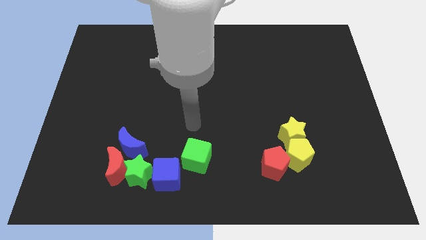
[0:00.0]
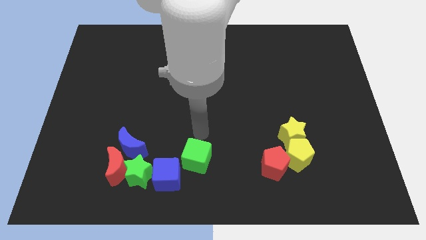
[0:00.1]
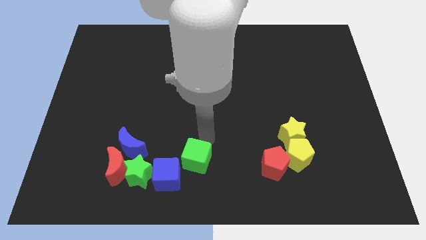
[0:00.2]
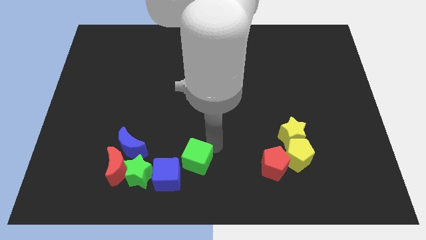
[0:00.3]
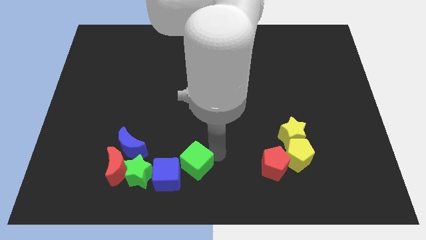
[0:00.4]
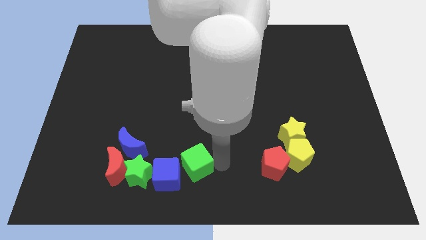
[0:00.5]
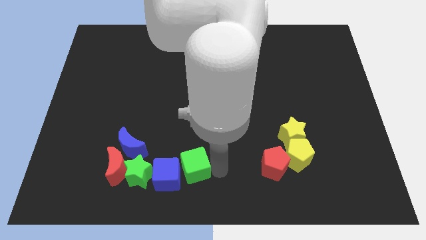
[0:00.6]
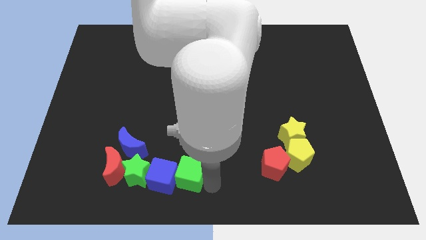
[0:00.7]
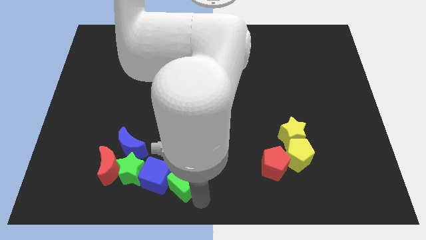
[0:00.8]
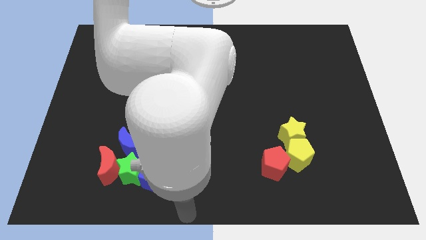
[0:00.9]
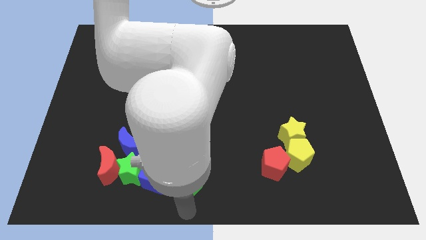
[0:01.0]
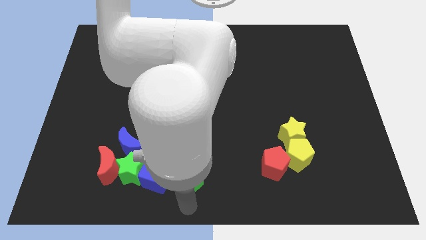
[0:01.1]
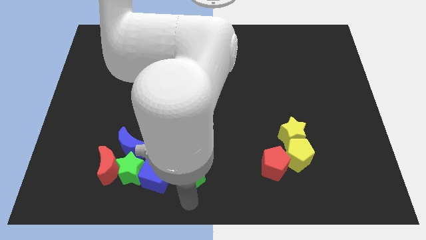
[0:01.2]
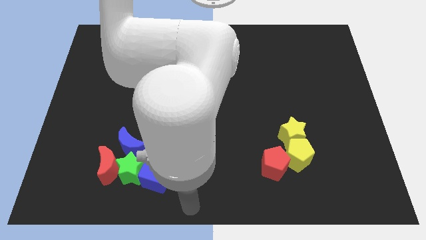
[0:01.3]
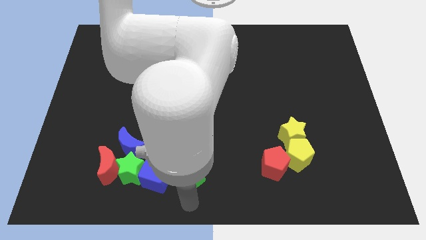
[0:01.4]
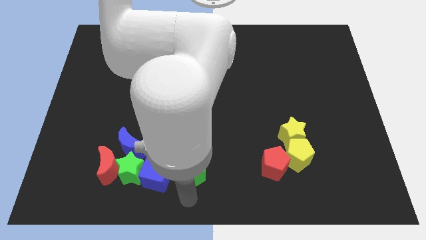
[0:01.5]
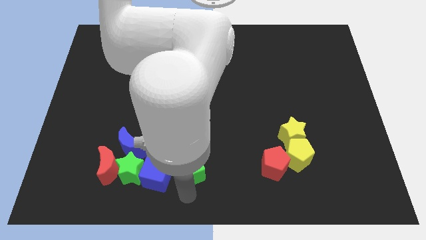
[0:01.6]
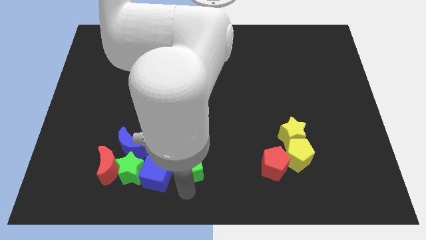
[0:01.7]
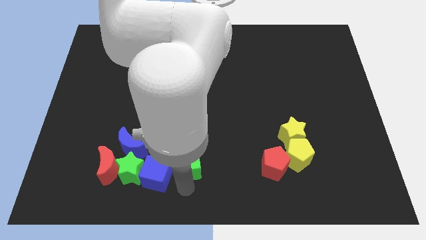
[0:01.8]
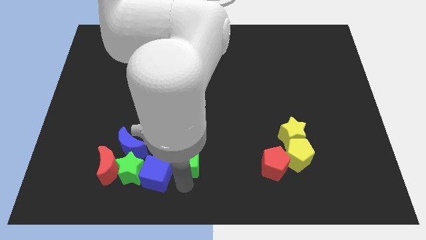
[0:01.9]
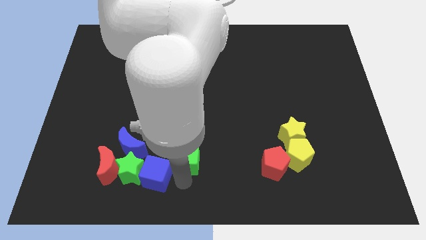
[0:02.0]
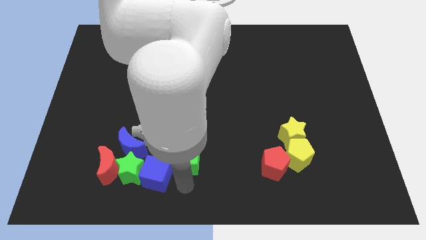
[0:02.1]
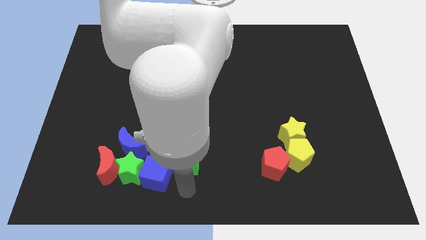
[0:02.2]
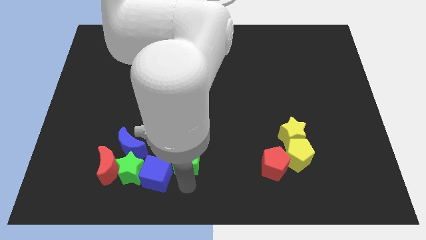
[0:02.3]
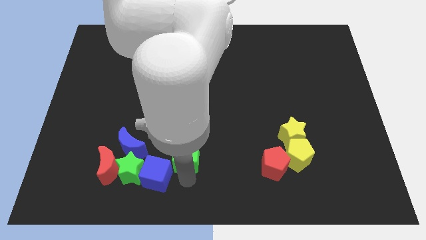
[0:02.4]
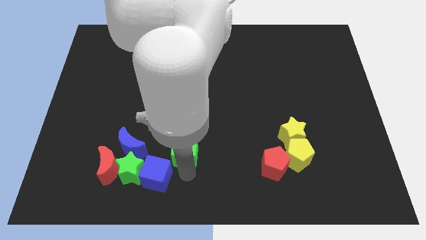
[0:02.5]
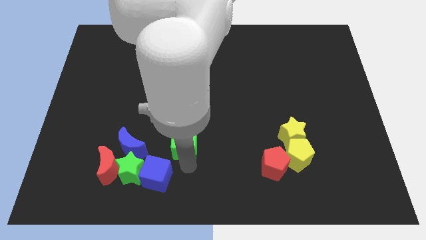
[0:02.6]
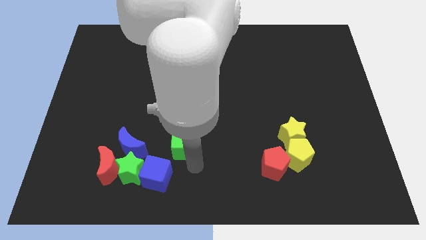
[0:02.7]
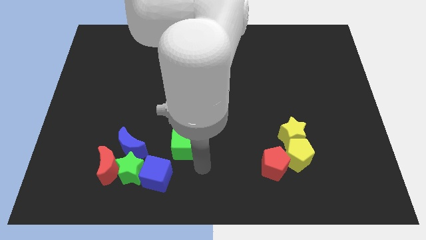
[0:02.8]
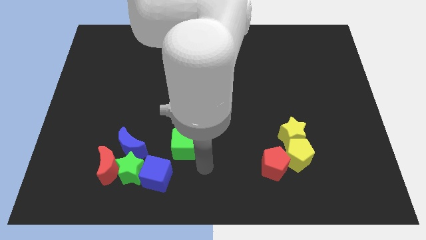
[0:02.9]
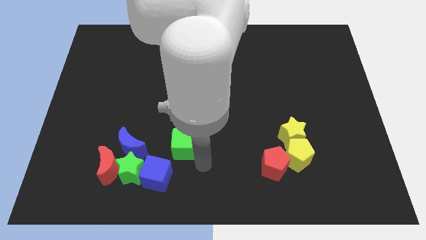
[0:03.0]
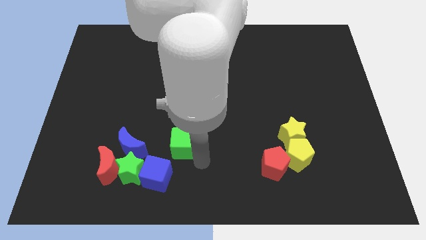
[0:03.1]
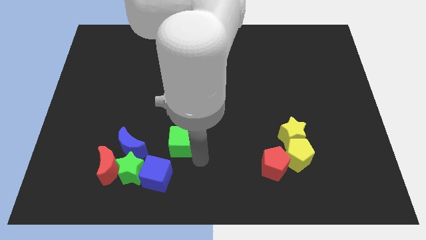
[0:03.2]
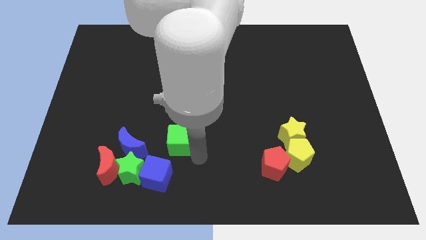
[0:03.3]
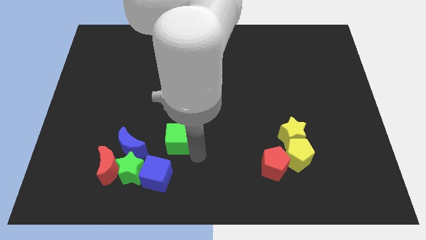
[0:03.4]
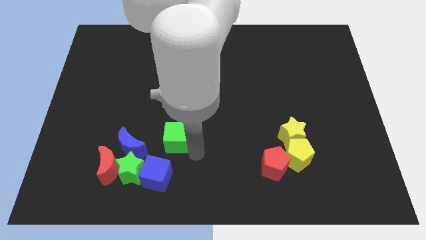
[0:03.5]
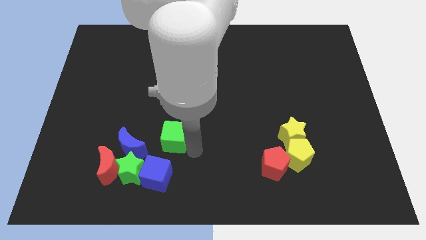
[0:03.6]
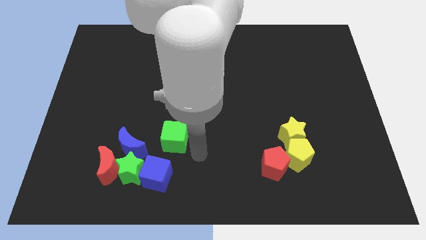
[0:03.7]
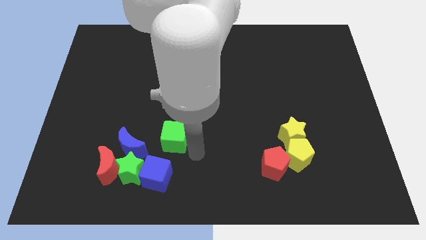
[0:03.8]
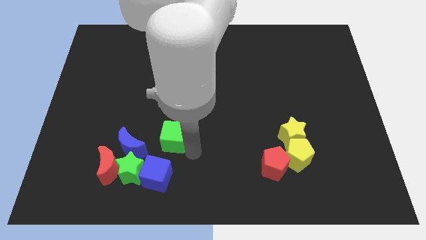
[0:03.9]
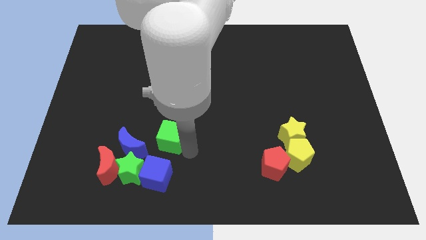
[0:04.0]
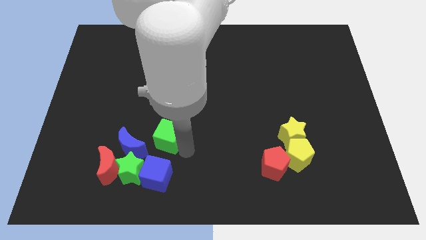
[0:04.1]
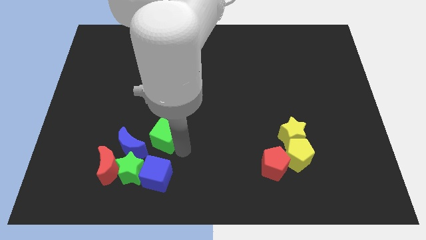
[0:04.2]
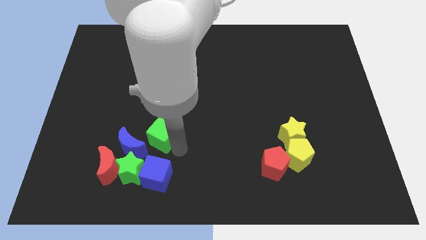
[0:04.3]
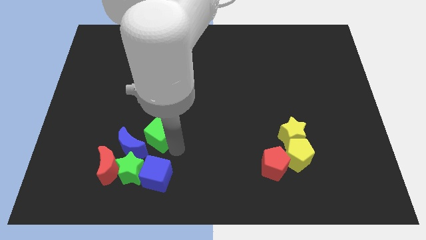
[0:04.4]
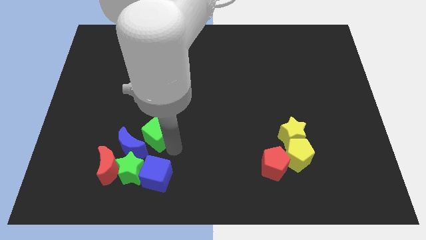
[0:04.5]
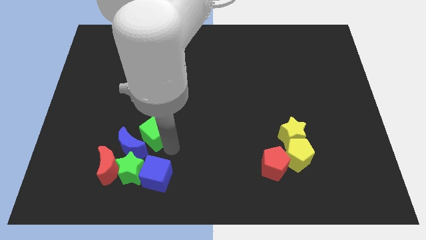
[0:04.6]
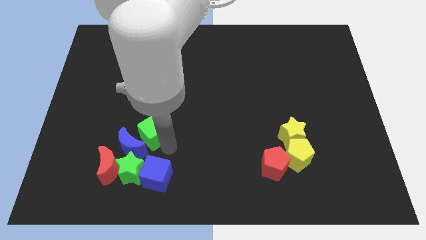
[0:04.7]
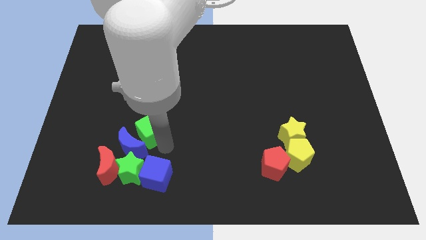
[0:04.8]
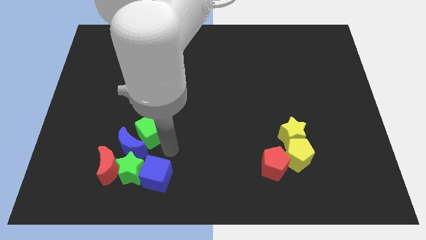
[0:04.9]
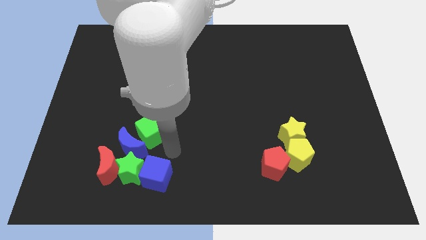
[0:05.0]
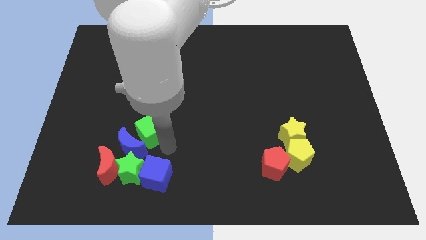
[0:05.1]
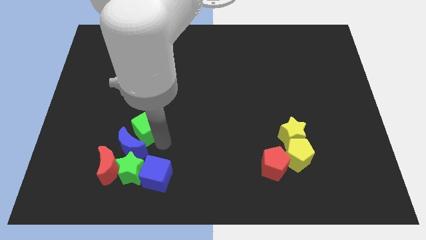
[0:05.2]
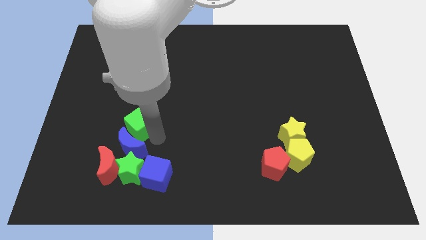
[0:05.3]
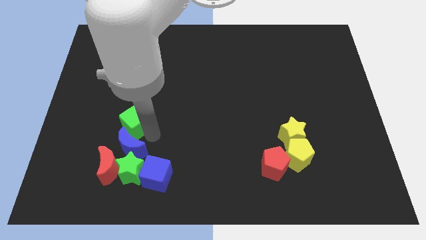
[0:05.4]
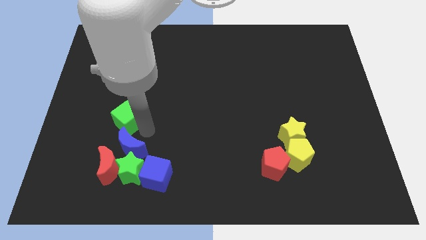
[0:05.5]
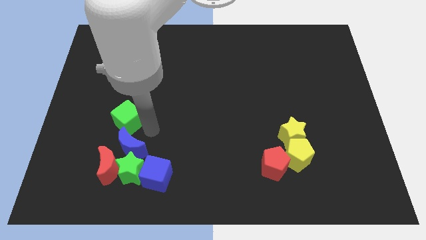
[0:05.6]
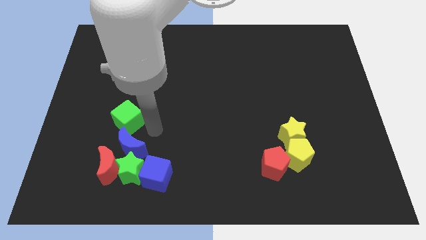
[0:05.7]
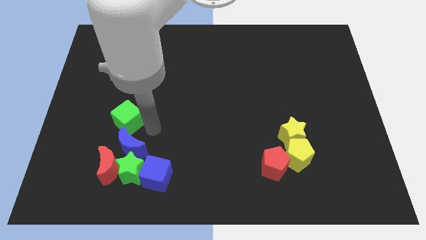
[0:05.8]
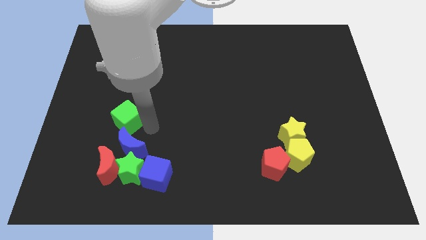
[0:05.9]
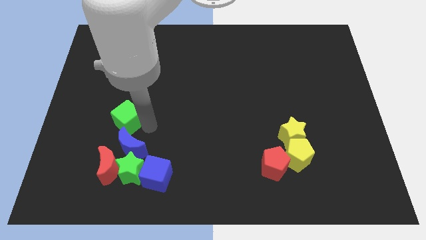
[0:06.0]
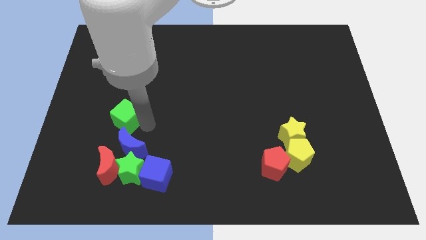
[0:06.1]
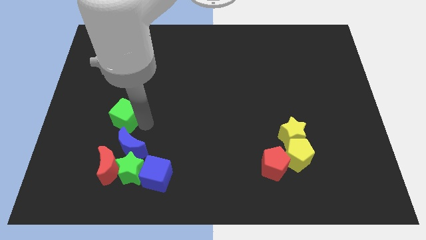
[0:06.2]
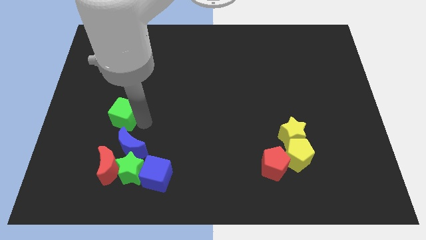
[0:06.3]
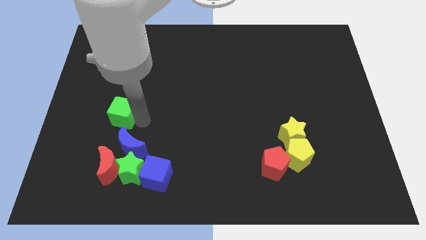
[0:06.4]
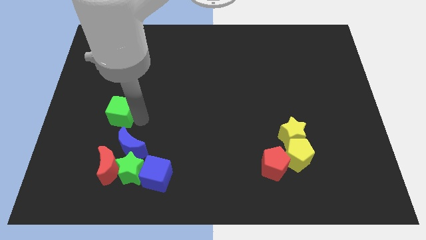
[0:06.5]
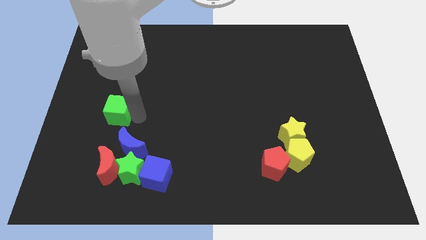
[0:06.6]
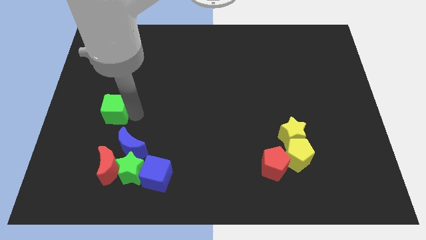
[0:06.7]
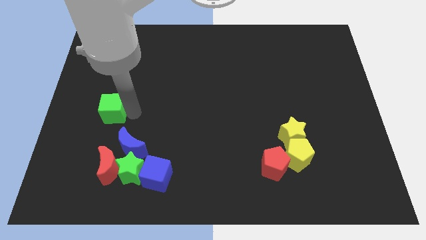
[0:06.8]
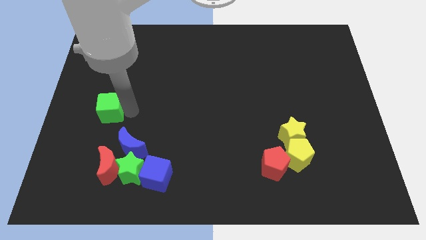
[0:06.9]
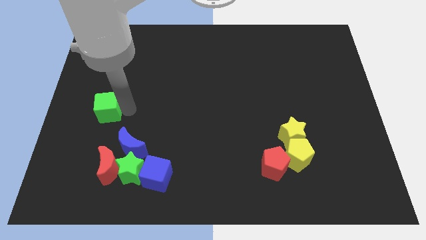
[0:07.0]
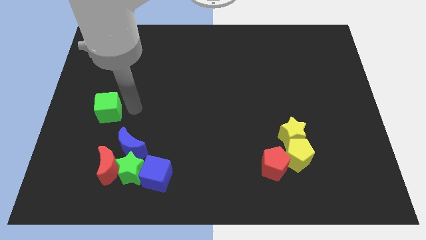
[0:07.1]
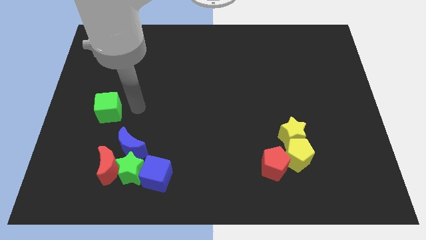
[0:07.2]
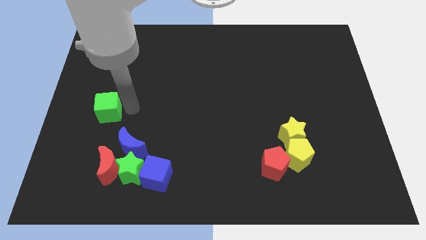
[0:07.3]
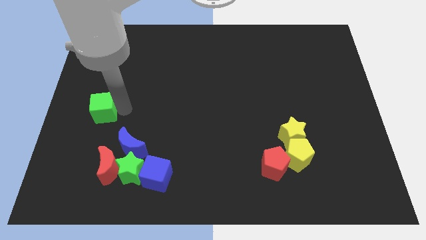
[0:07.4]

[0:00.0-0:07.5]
put the green cube to the center left
